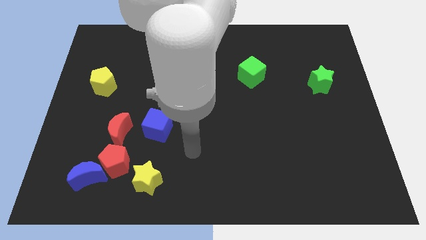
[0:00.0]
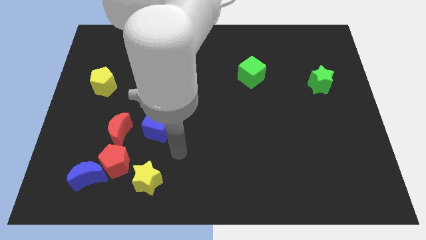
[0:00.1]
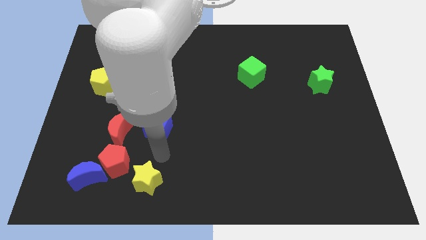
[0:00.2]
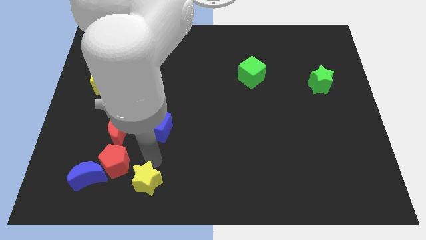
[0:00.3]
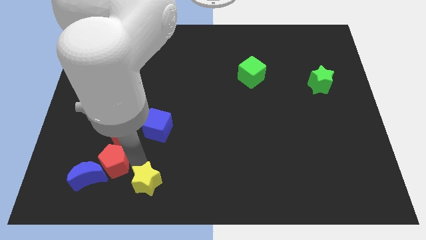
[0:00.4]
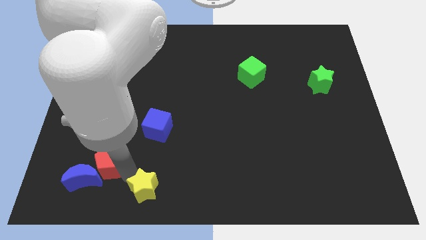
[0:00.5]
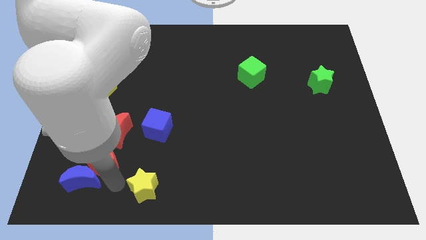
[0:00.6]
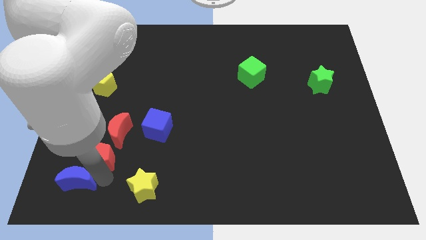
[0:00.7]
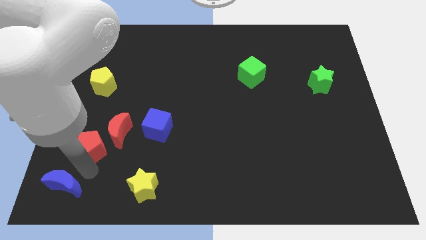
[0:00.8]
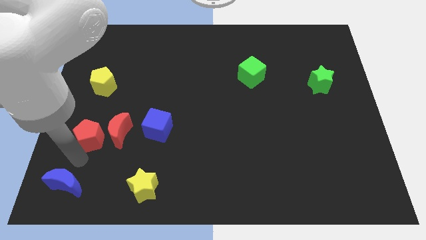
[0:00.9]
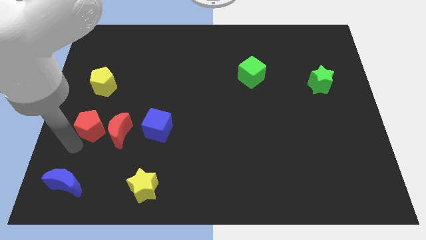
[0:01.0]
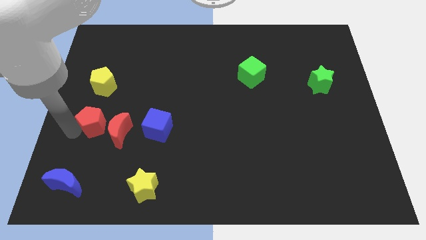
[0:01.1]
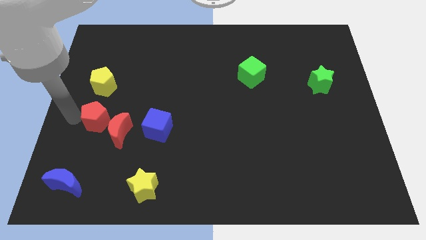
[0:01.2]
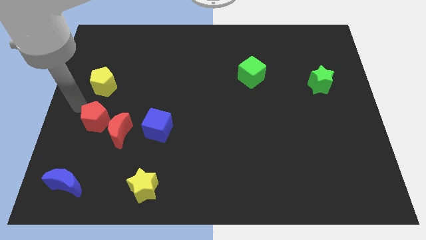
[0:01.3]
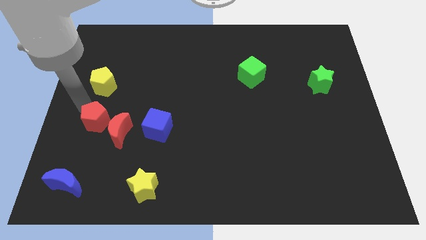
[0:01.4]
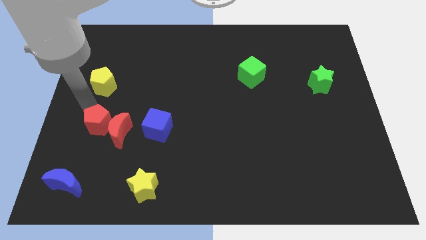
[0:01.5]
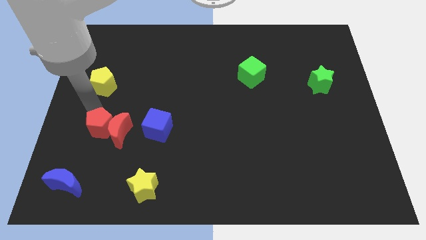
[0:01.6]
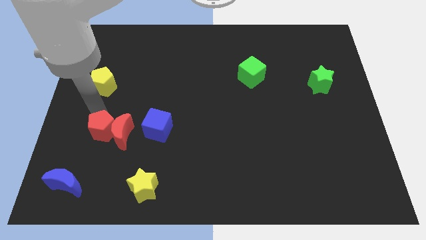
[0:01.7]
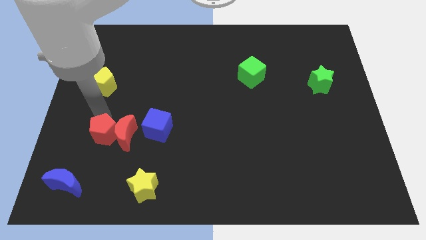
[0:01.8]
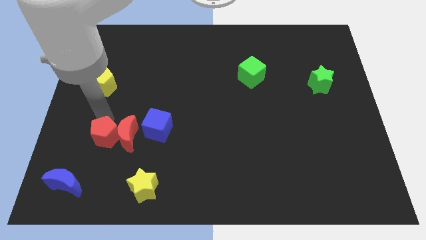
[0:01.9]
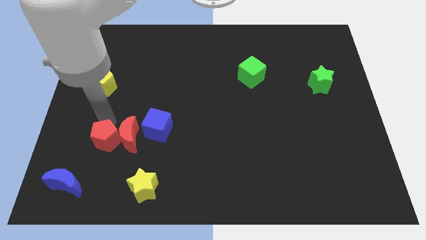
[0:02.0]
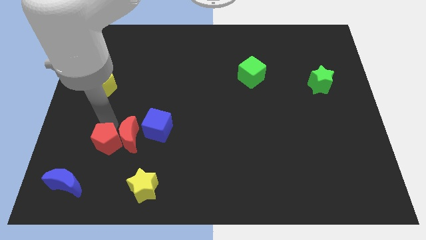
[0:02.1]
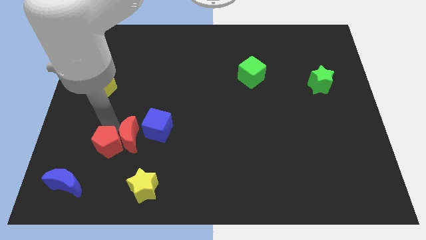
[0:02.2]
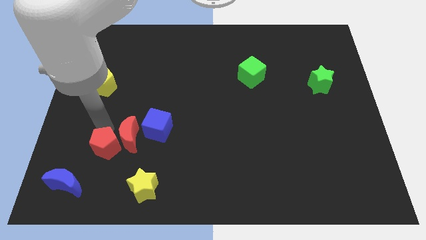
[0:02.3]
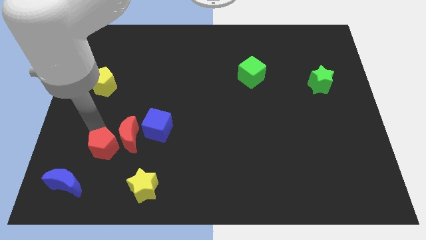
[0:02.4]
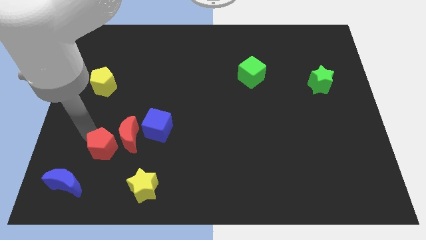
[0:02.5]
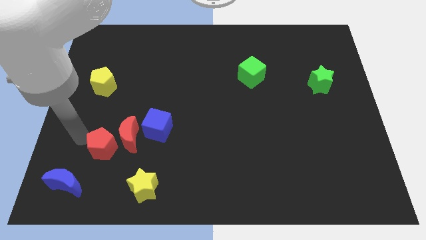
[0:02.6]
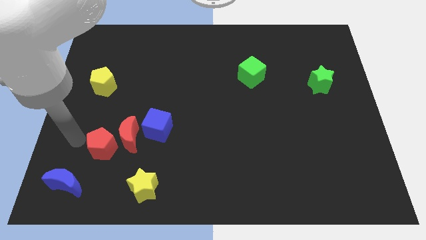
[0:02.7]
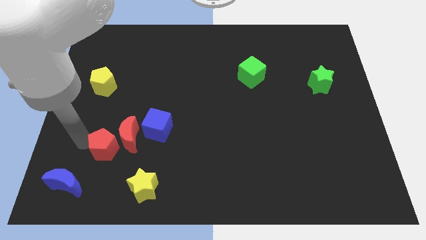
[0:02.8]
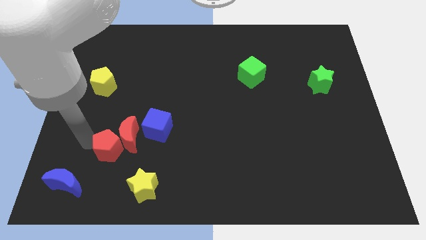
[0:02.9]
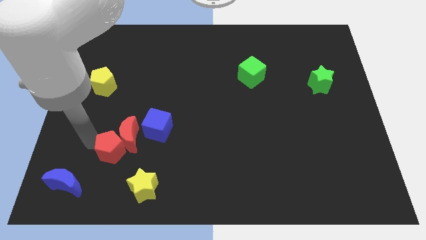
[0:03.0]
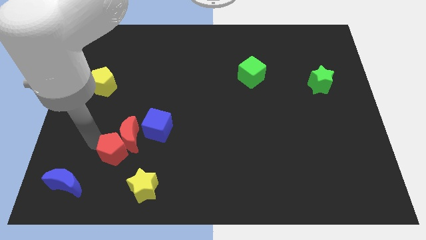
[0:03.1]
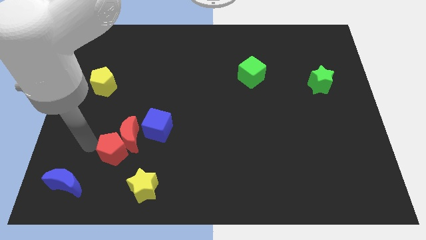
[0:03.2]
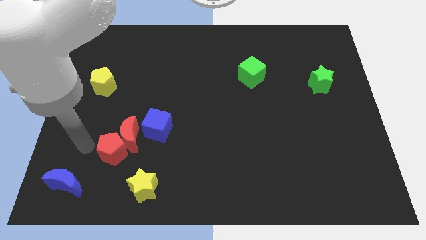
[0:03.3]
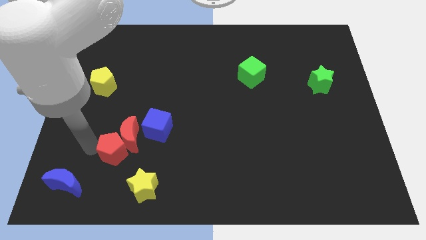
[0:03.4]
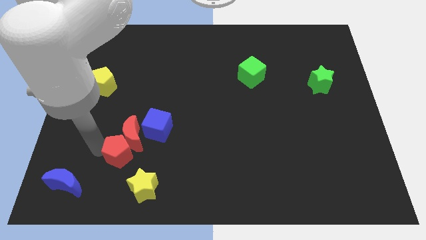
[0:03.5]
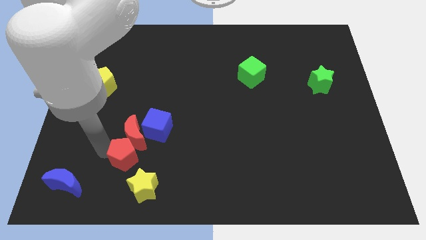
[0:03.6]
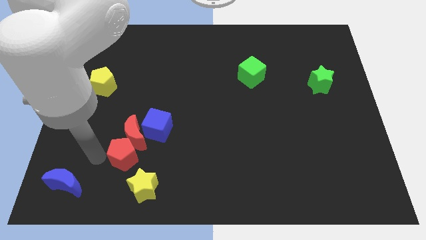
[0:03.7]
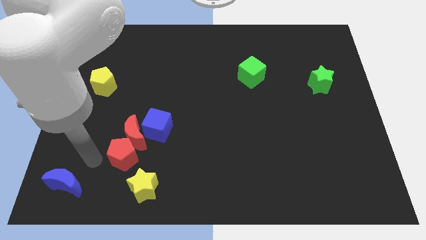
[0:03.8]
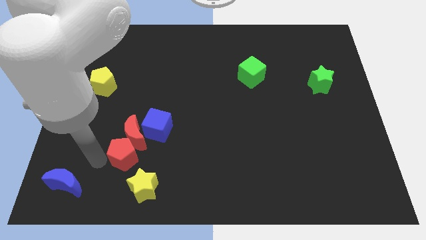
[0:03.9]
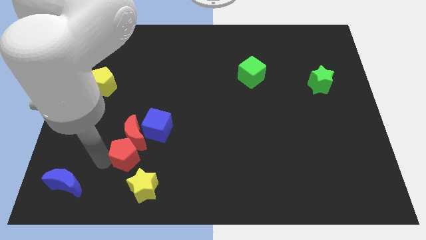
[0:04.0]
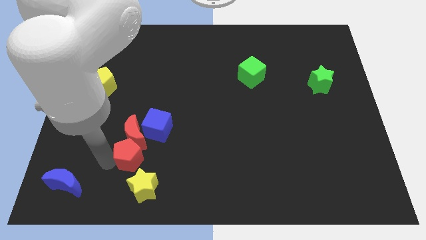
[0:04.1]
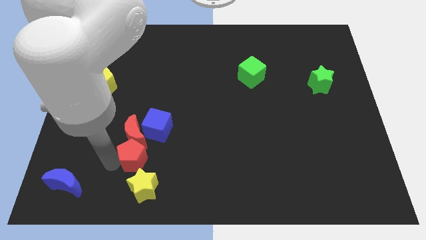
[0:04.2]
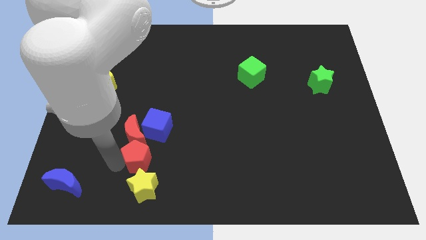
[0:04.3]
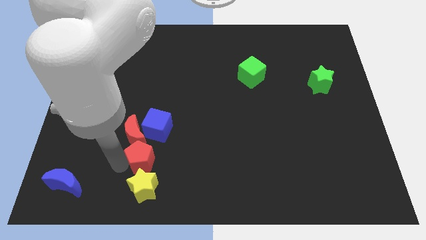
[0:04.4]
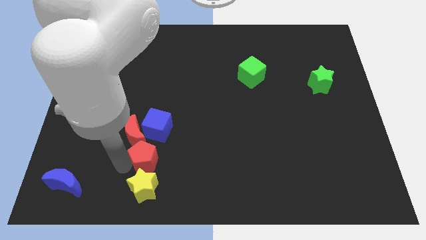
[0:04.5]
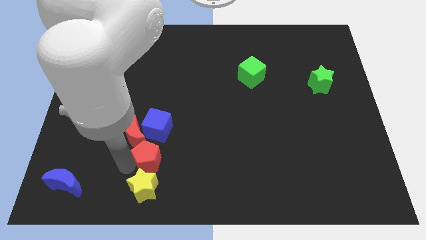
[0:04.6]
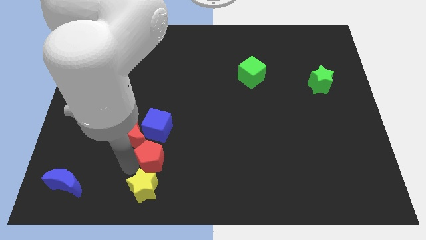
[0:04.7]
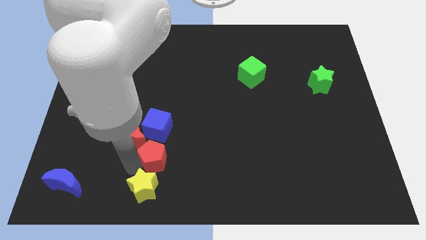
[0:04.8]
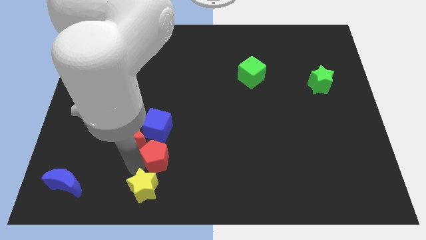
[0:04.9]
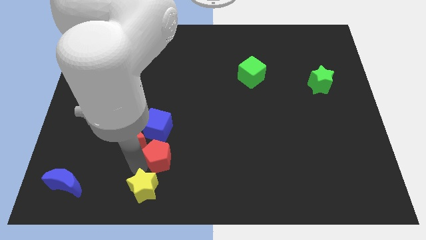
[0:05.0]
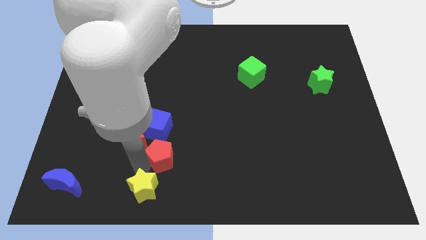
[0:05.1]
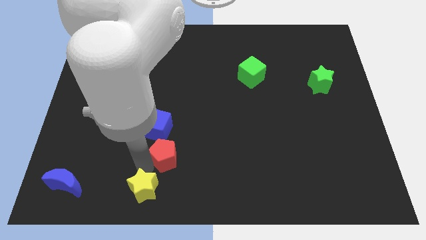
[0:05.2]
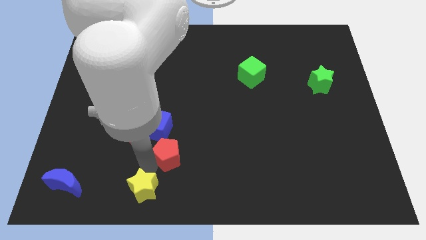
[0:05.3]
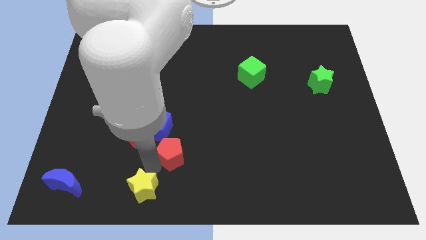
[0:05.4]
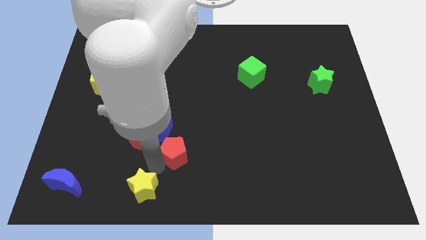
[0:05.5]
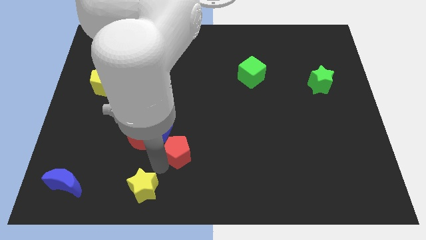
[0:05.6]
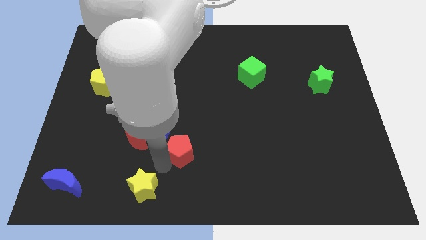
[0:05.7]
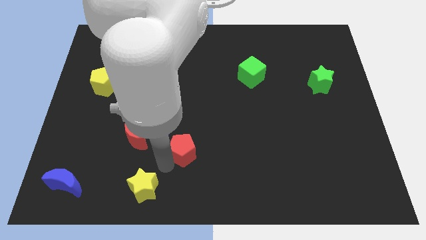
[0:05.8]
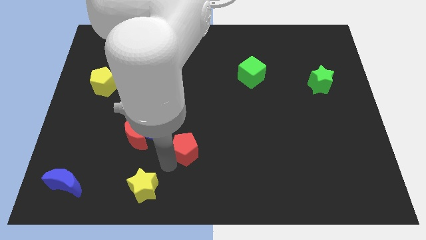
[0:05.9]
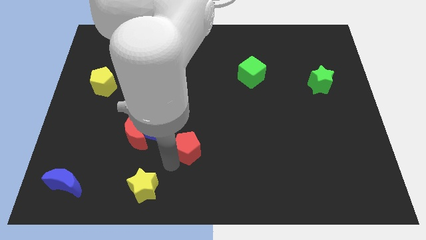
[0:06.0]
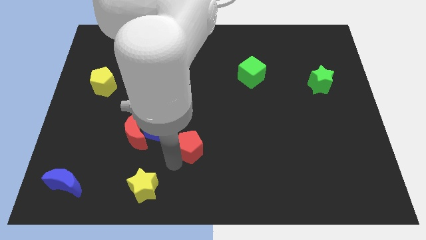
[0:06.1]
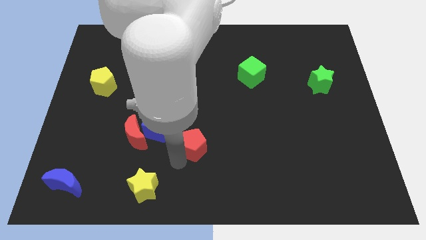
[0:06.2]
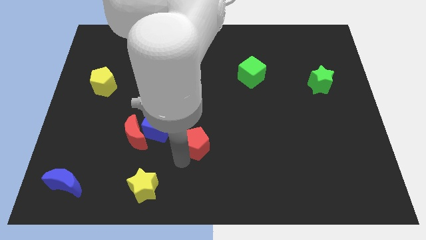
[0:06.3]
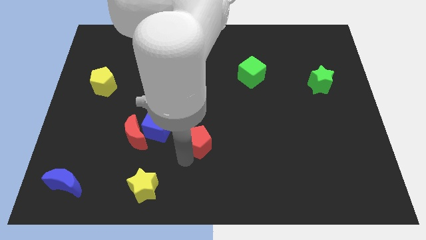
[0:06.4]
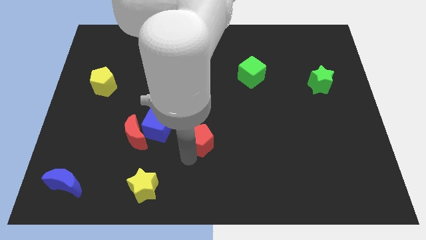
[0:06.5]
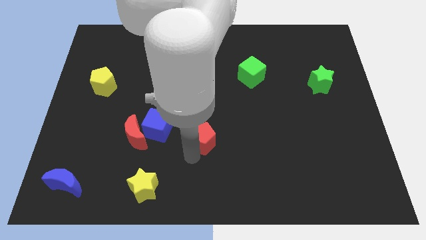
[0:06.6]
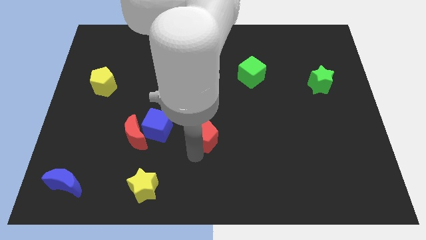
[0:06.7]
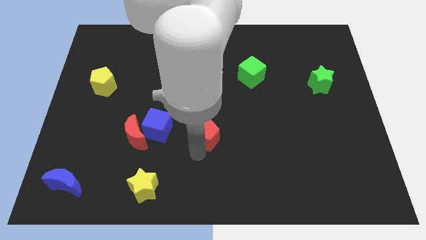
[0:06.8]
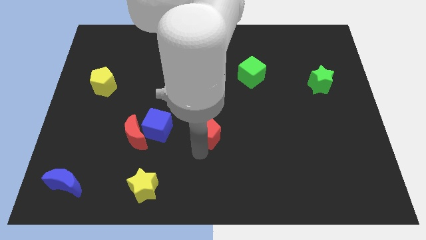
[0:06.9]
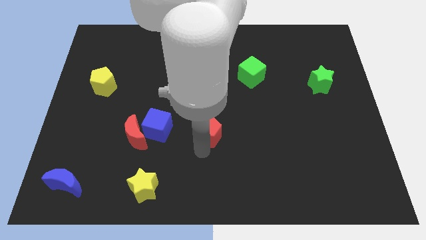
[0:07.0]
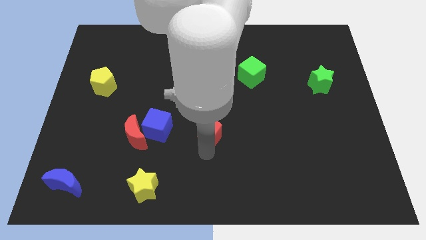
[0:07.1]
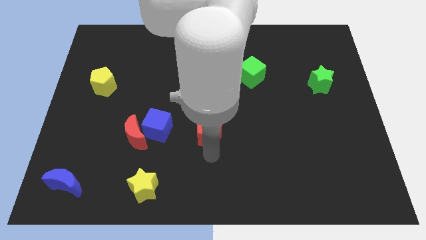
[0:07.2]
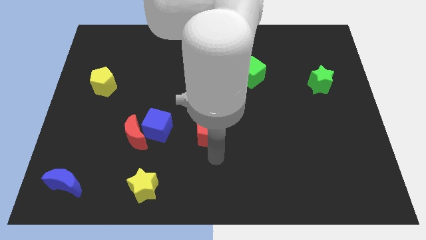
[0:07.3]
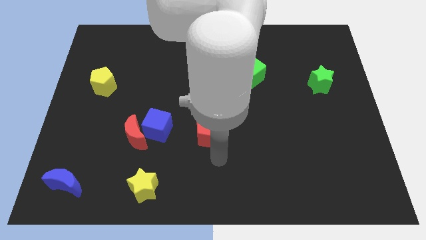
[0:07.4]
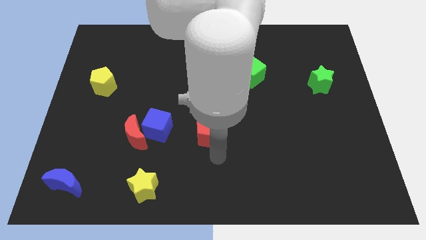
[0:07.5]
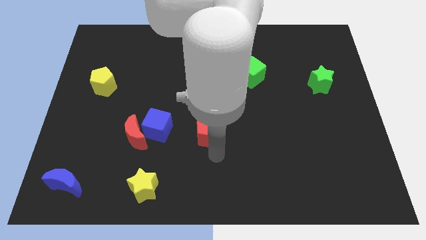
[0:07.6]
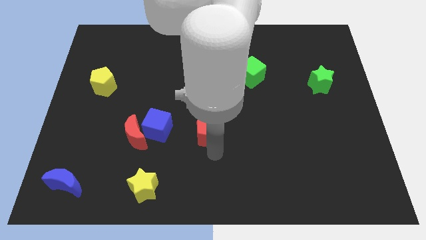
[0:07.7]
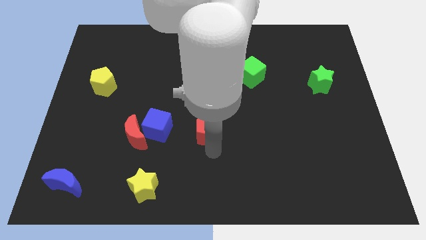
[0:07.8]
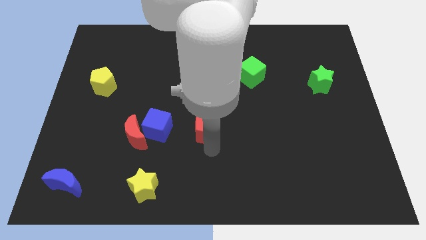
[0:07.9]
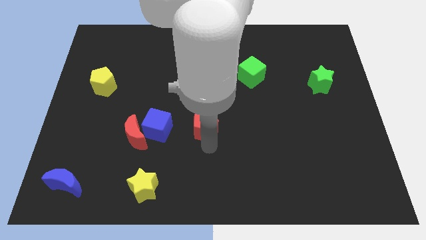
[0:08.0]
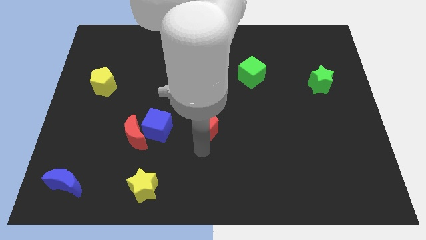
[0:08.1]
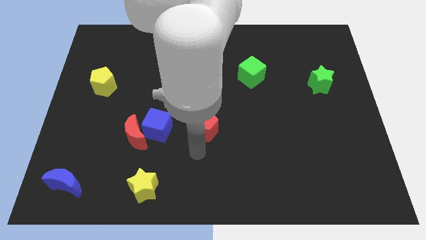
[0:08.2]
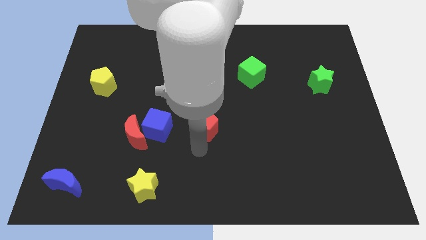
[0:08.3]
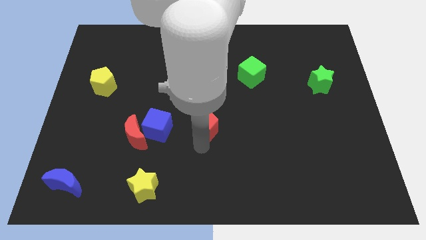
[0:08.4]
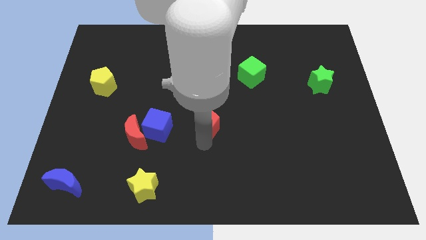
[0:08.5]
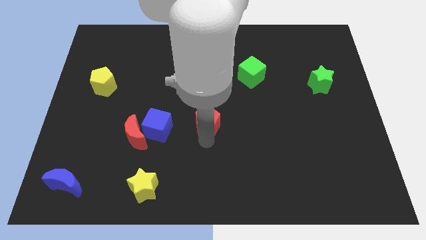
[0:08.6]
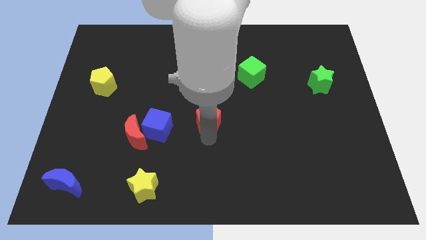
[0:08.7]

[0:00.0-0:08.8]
slide the red pentagon up and to the right
